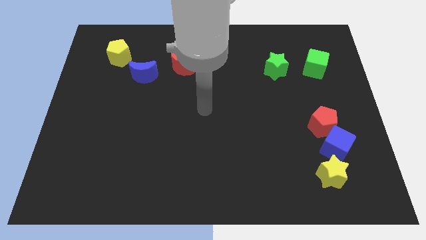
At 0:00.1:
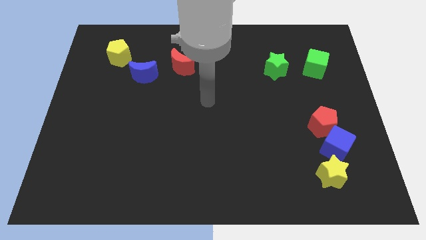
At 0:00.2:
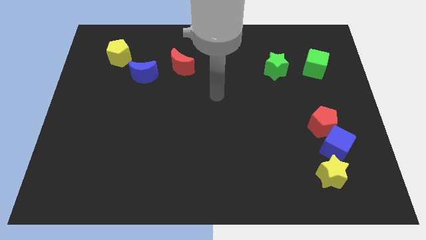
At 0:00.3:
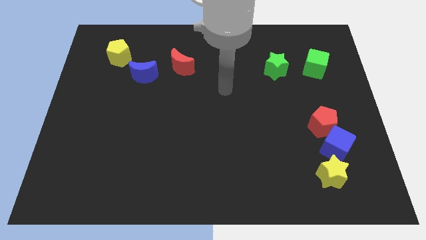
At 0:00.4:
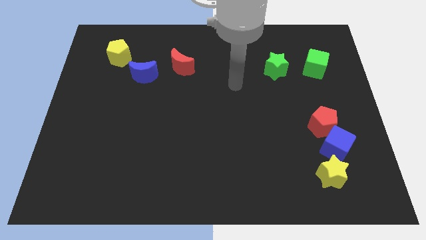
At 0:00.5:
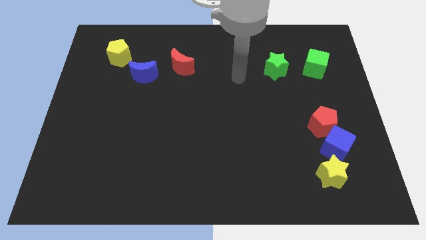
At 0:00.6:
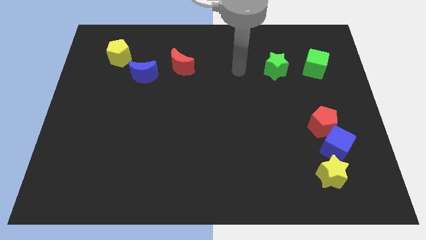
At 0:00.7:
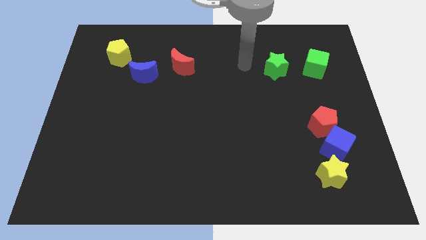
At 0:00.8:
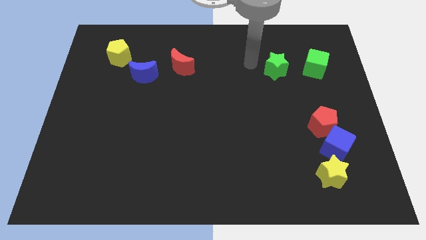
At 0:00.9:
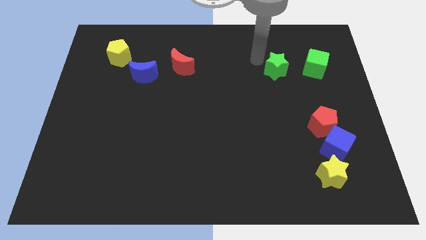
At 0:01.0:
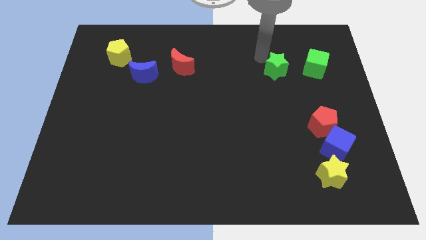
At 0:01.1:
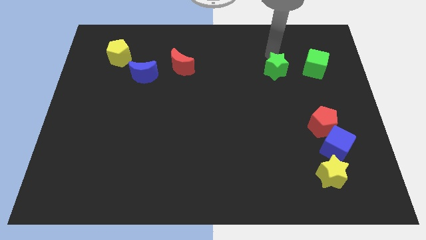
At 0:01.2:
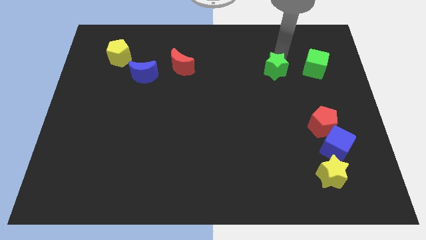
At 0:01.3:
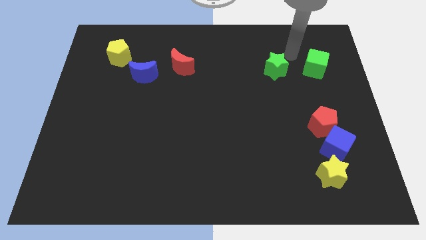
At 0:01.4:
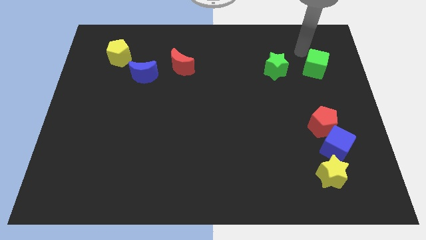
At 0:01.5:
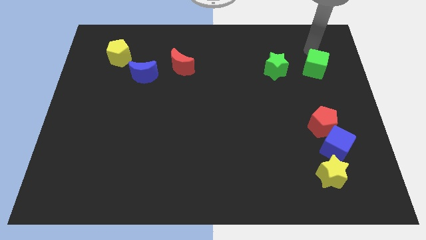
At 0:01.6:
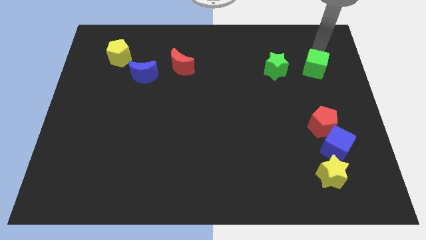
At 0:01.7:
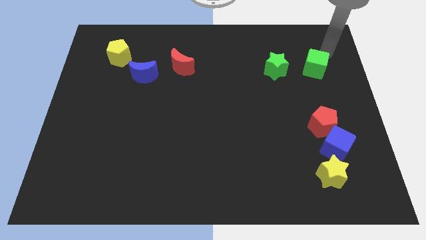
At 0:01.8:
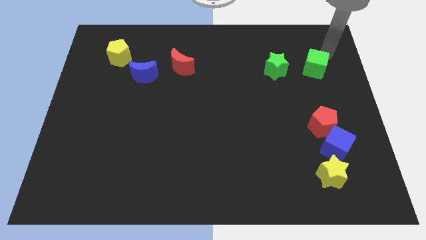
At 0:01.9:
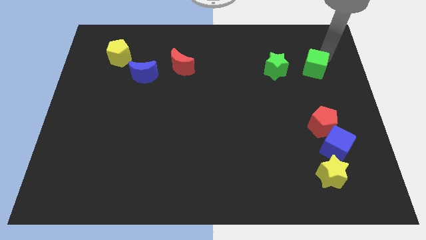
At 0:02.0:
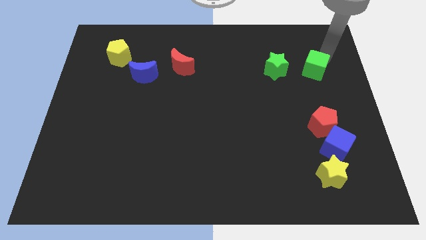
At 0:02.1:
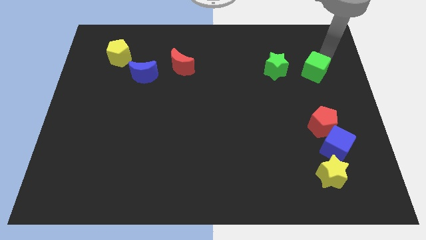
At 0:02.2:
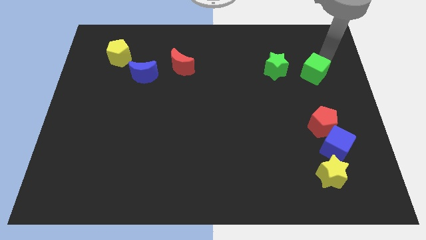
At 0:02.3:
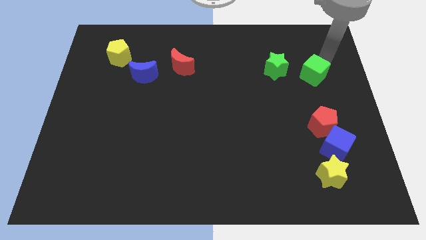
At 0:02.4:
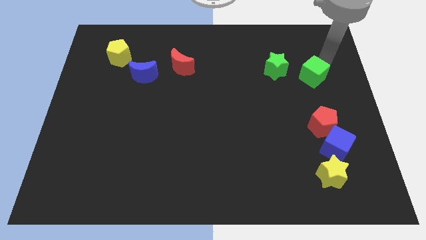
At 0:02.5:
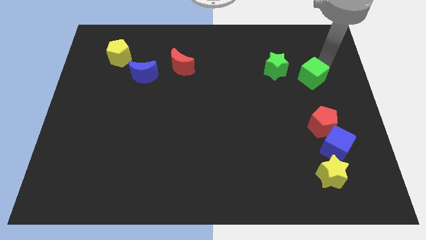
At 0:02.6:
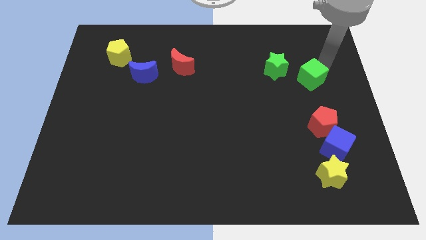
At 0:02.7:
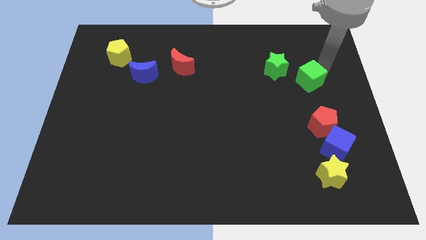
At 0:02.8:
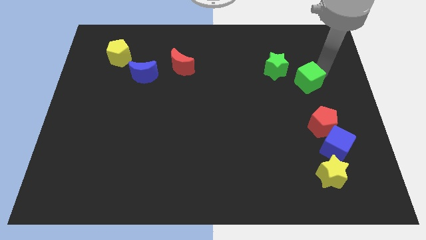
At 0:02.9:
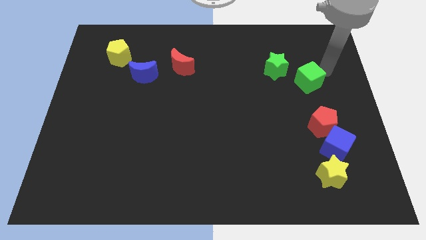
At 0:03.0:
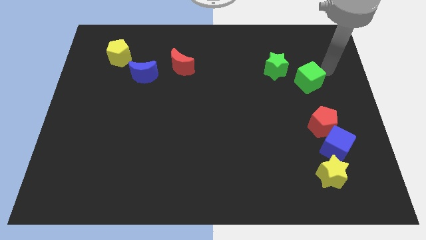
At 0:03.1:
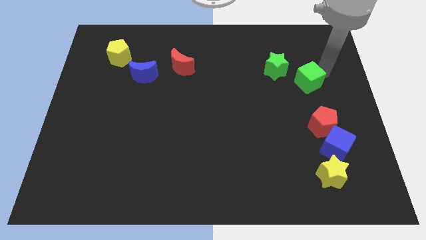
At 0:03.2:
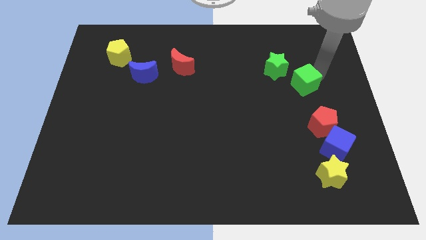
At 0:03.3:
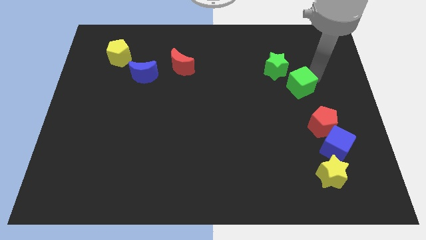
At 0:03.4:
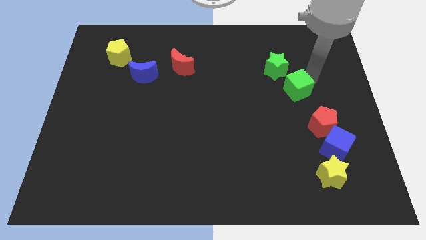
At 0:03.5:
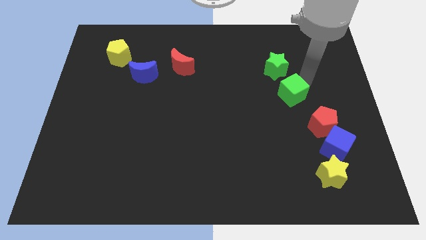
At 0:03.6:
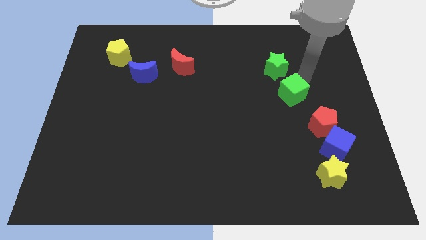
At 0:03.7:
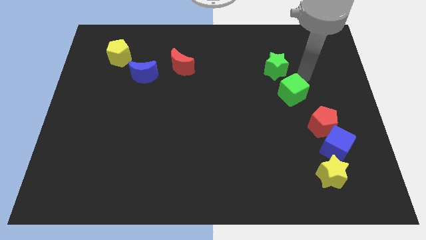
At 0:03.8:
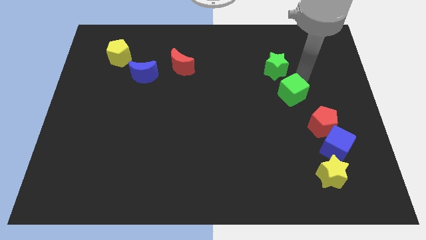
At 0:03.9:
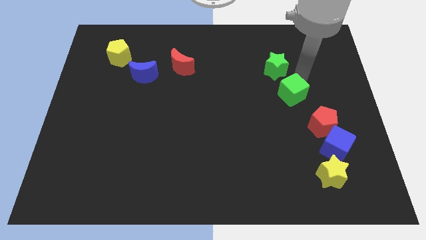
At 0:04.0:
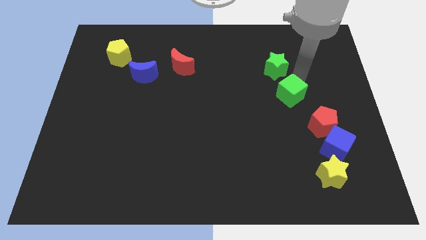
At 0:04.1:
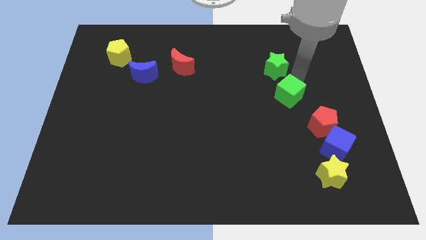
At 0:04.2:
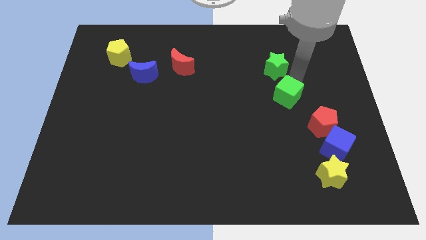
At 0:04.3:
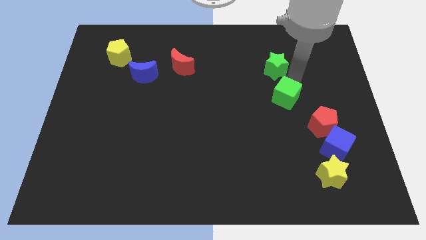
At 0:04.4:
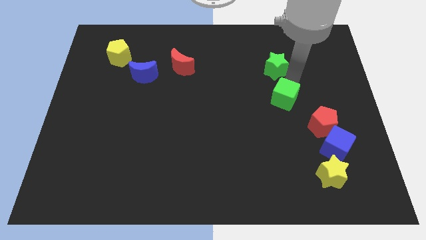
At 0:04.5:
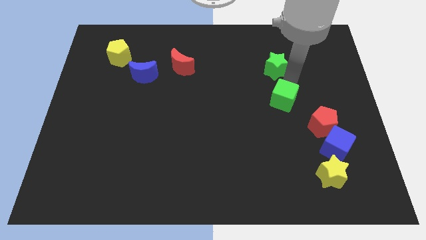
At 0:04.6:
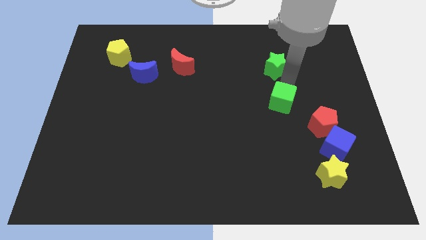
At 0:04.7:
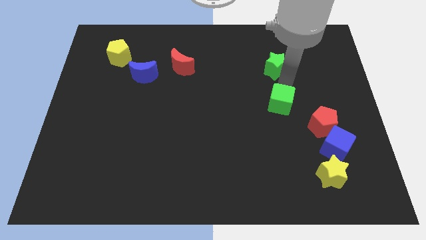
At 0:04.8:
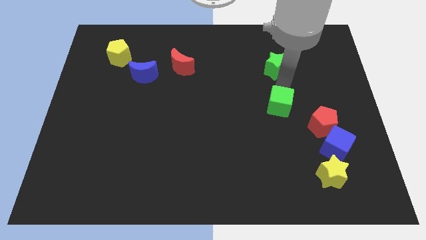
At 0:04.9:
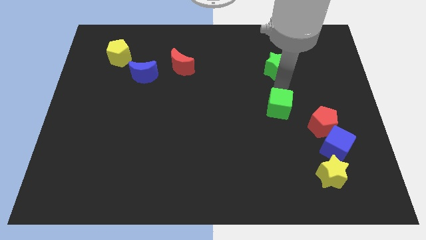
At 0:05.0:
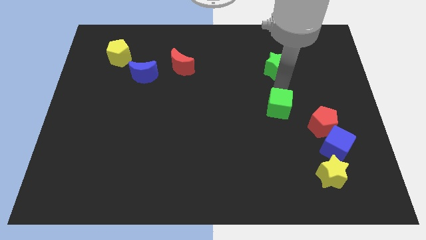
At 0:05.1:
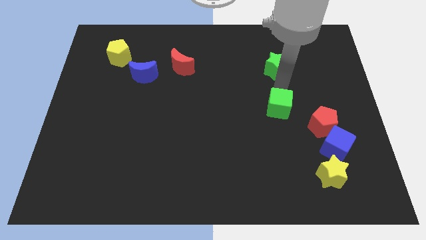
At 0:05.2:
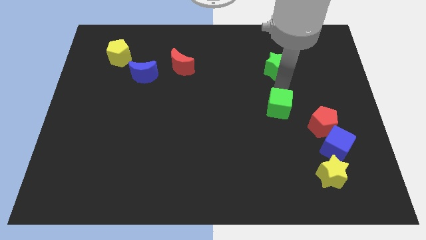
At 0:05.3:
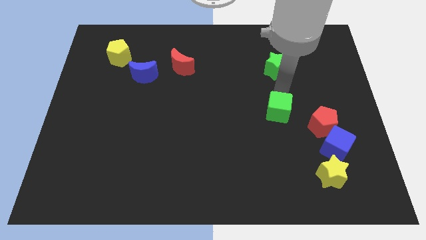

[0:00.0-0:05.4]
push the green cube left of the red pentagon

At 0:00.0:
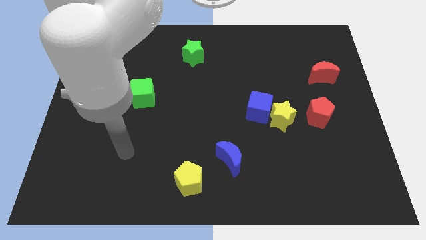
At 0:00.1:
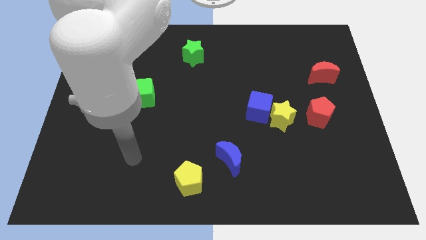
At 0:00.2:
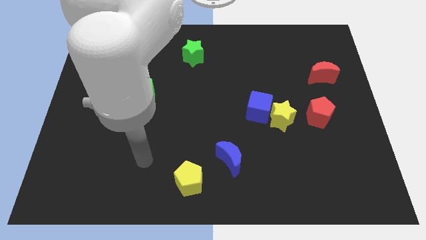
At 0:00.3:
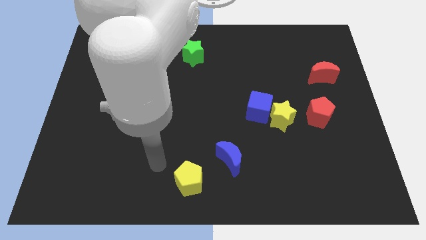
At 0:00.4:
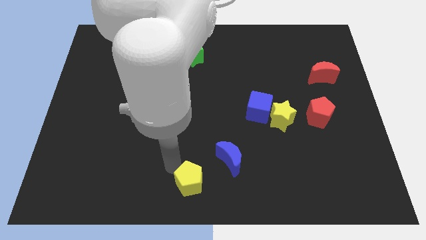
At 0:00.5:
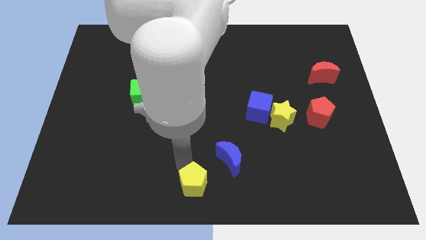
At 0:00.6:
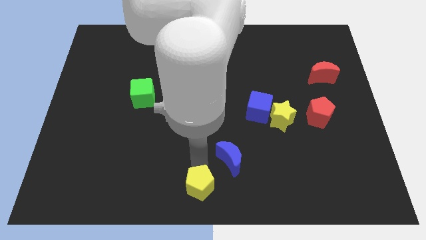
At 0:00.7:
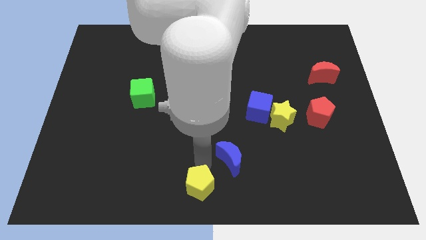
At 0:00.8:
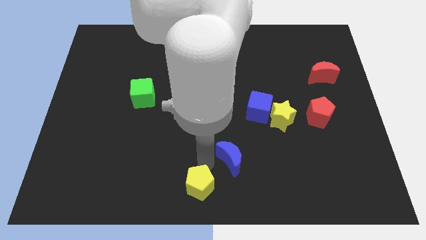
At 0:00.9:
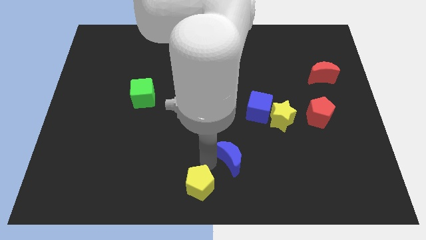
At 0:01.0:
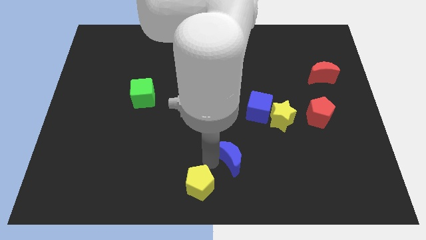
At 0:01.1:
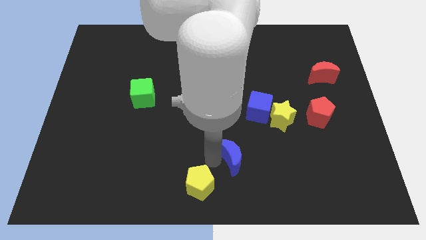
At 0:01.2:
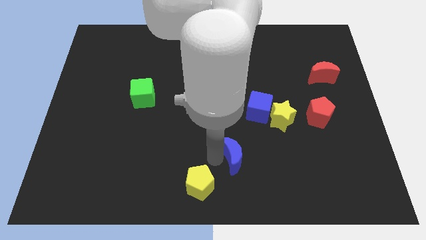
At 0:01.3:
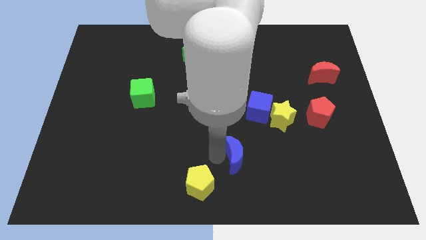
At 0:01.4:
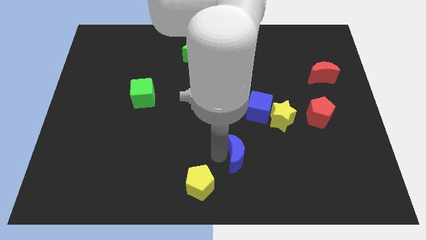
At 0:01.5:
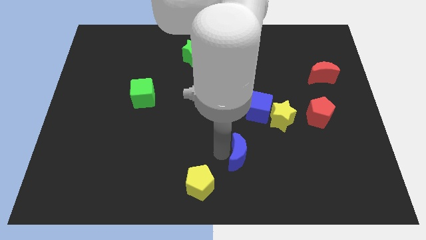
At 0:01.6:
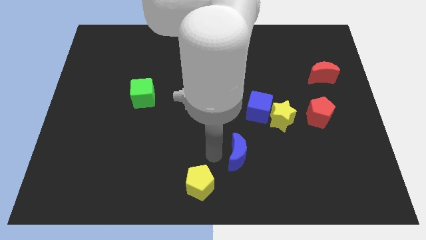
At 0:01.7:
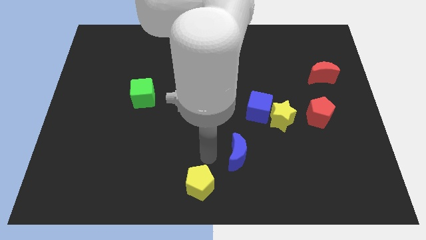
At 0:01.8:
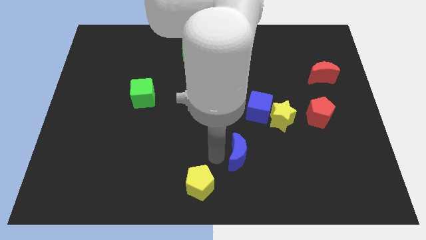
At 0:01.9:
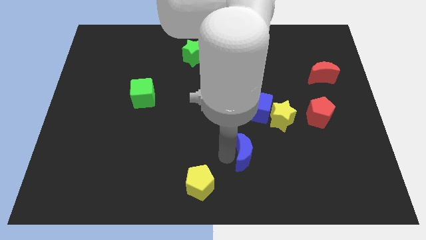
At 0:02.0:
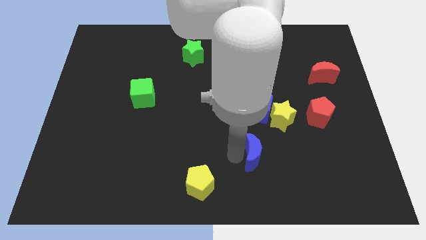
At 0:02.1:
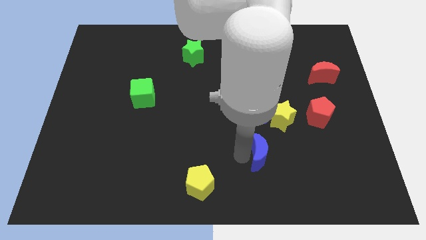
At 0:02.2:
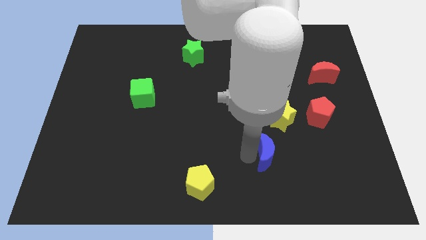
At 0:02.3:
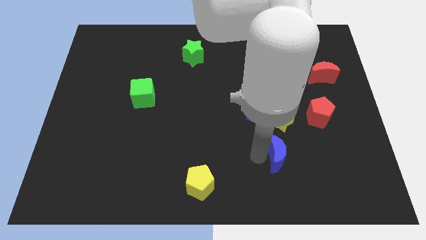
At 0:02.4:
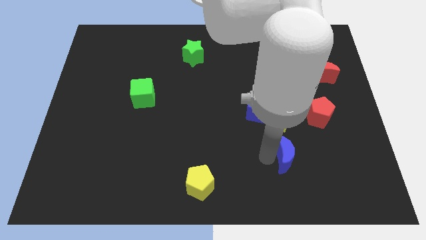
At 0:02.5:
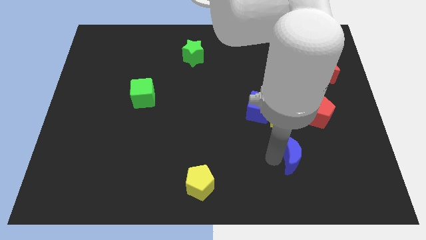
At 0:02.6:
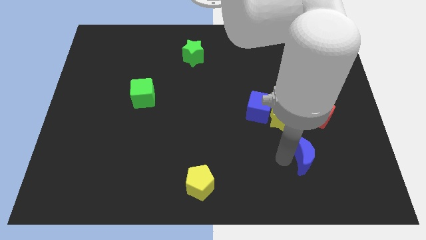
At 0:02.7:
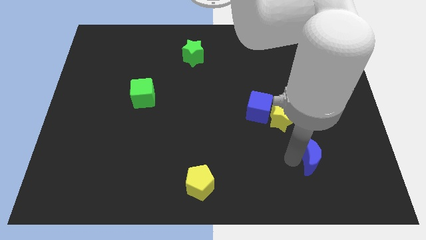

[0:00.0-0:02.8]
push the blue moon to the bottom of the red pentagon
